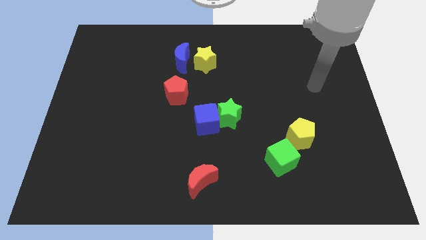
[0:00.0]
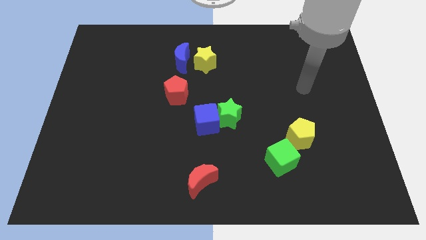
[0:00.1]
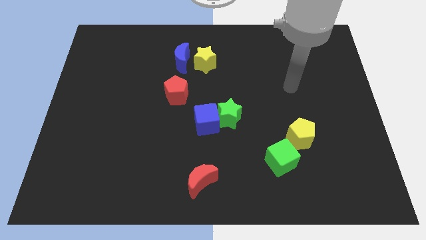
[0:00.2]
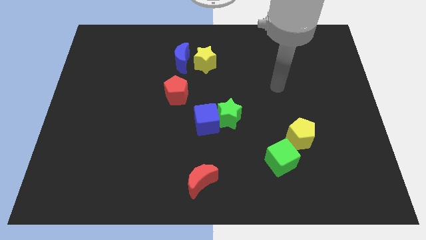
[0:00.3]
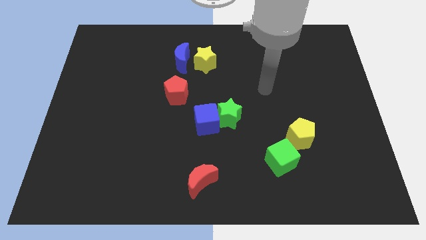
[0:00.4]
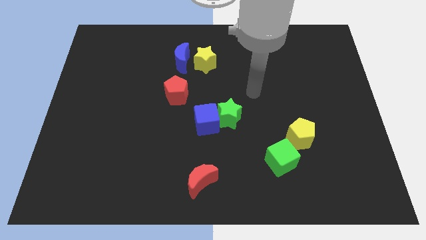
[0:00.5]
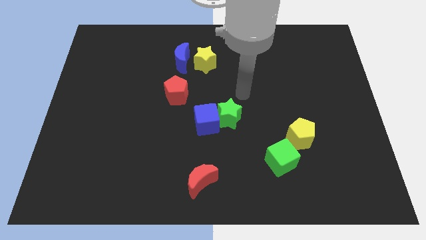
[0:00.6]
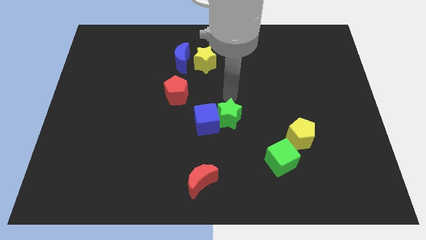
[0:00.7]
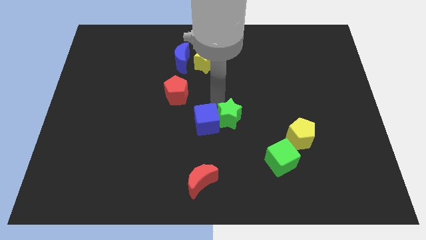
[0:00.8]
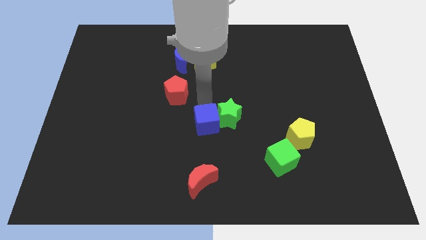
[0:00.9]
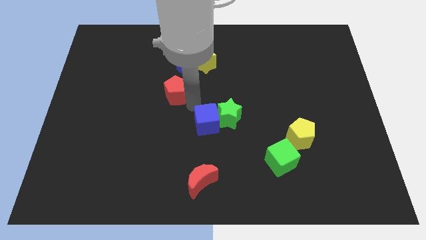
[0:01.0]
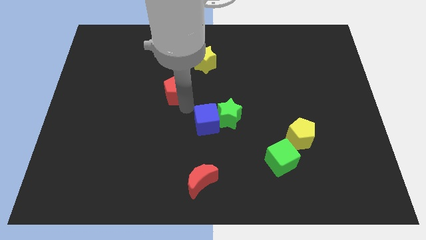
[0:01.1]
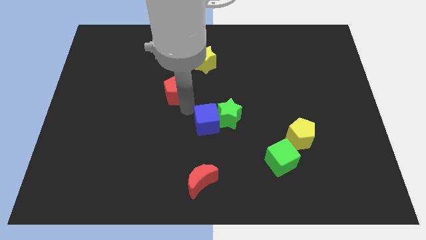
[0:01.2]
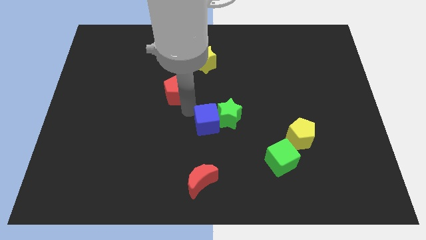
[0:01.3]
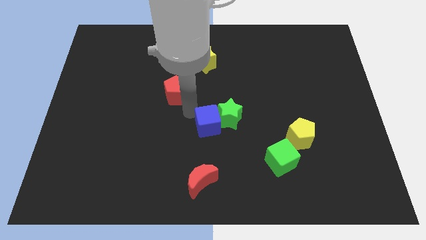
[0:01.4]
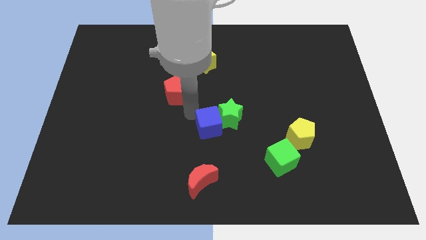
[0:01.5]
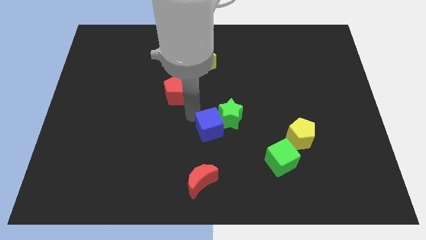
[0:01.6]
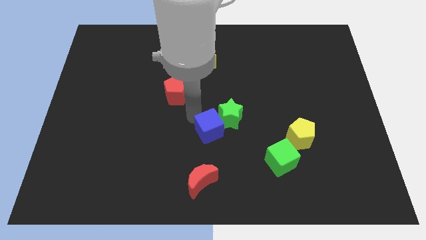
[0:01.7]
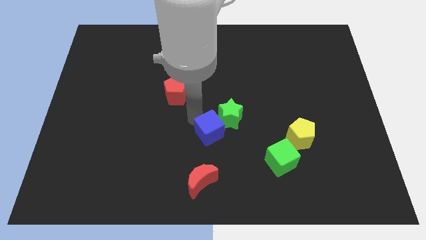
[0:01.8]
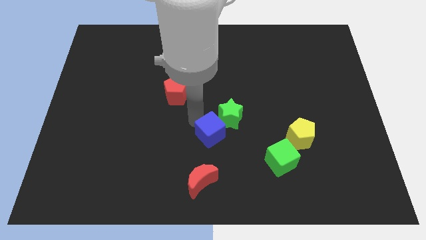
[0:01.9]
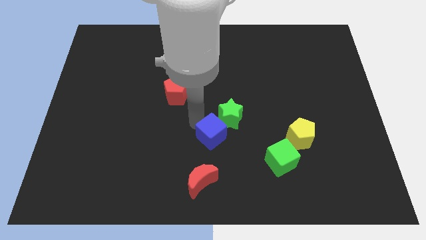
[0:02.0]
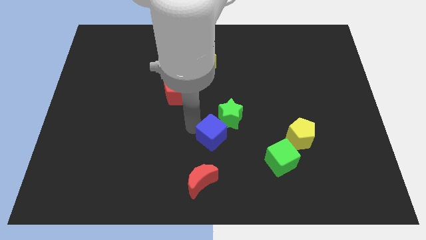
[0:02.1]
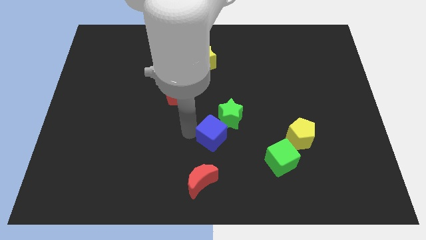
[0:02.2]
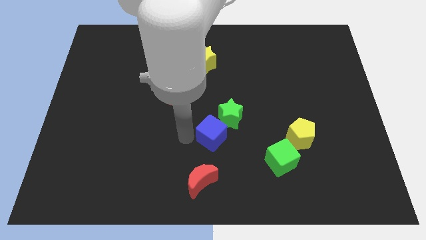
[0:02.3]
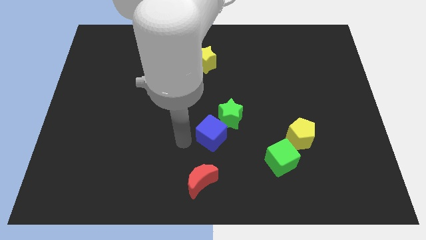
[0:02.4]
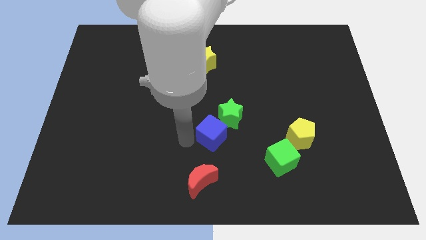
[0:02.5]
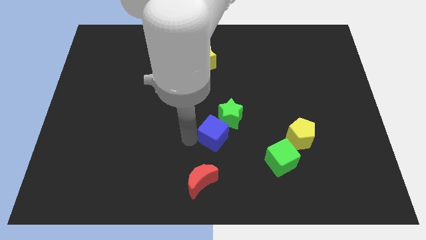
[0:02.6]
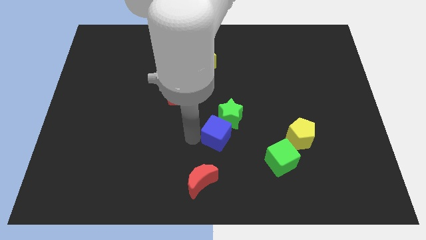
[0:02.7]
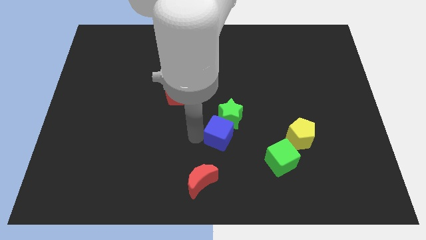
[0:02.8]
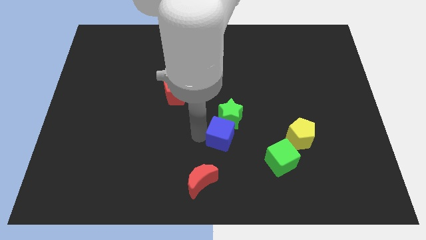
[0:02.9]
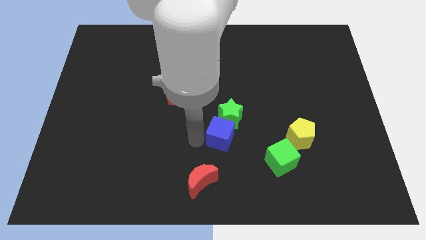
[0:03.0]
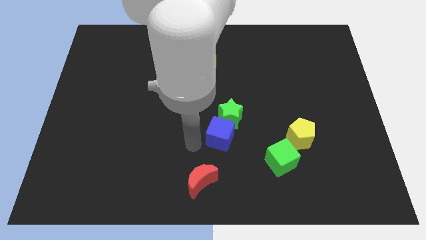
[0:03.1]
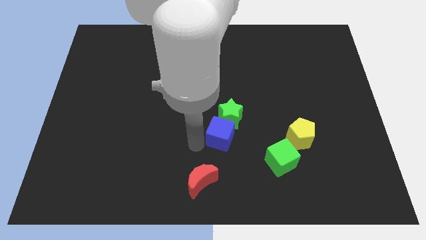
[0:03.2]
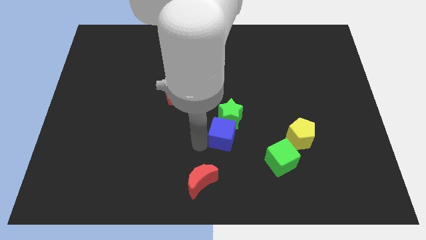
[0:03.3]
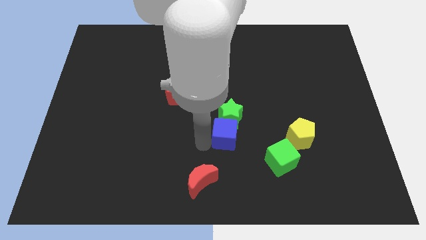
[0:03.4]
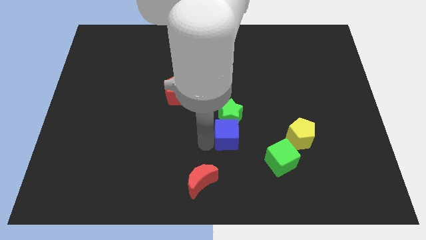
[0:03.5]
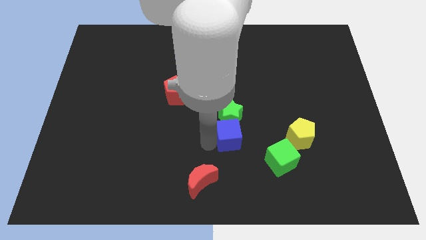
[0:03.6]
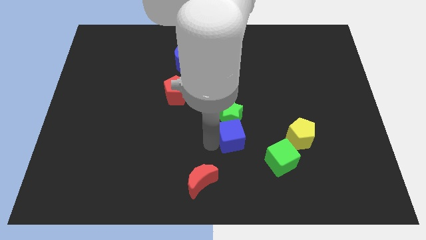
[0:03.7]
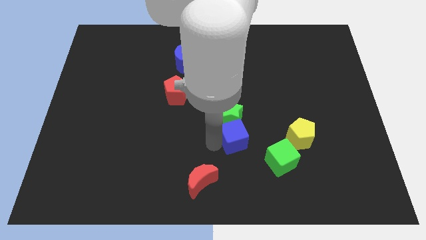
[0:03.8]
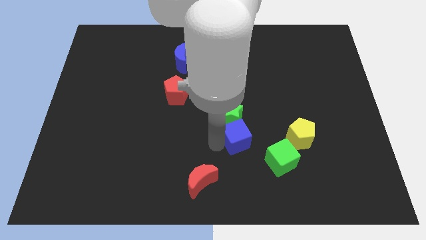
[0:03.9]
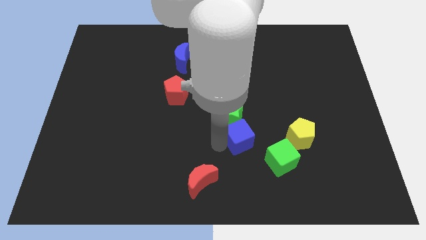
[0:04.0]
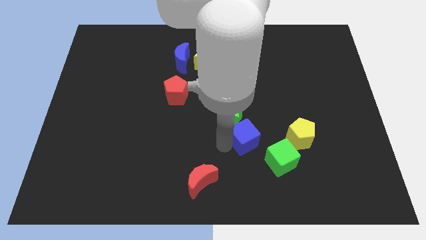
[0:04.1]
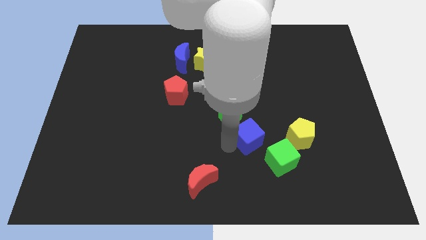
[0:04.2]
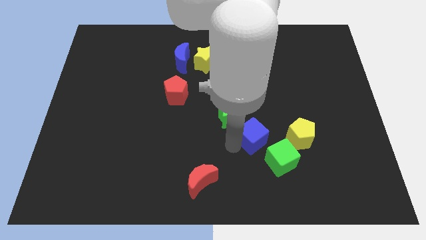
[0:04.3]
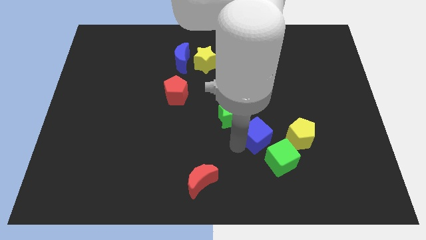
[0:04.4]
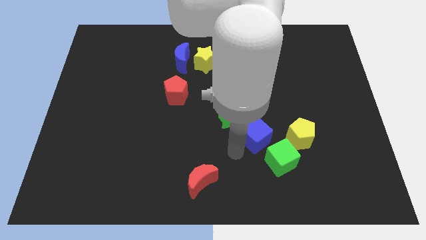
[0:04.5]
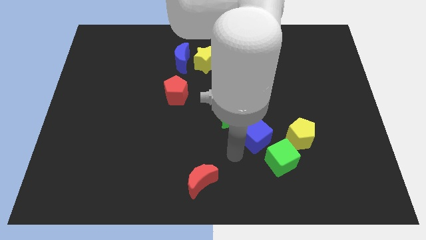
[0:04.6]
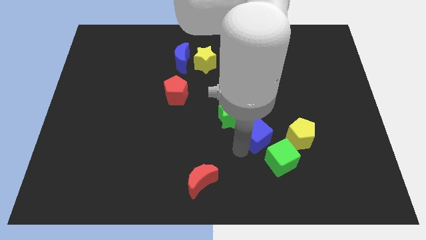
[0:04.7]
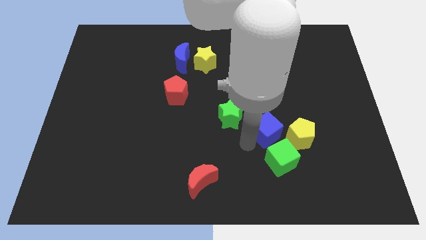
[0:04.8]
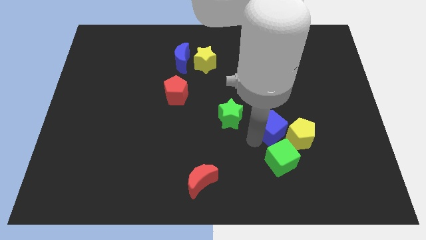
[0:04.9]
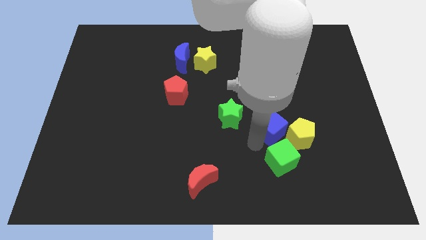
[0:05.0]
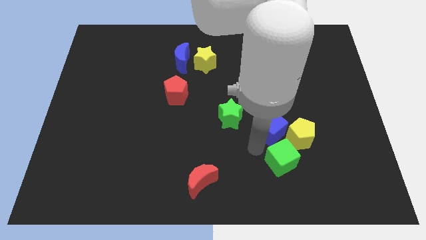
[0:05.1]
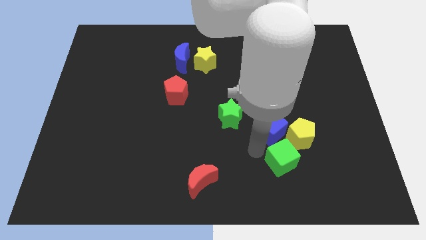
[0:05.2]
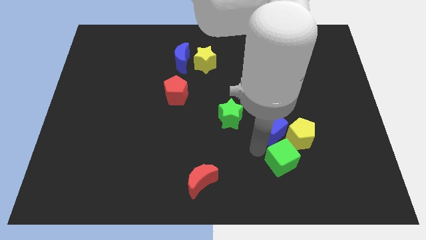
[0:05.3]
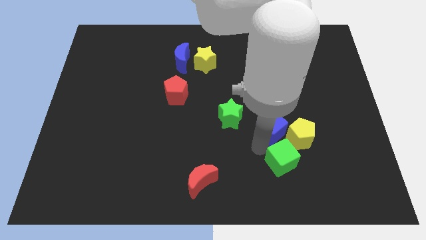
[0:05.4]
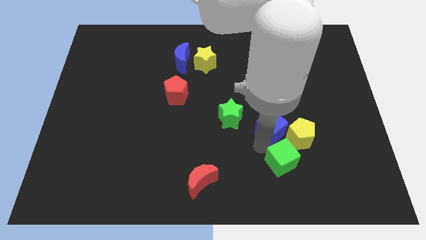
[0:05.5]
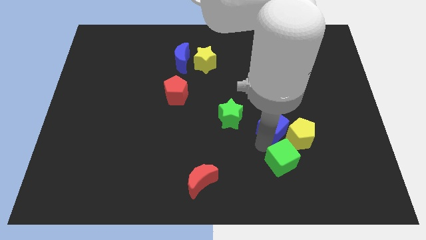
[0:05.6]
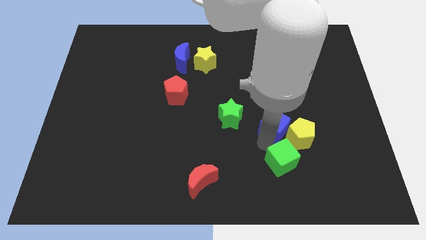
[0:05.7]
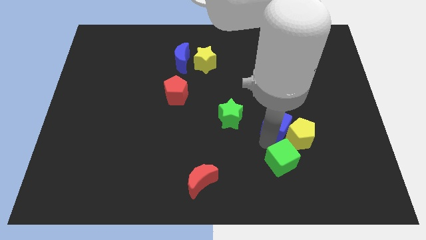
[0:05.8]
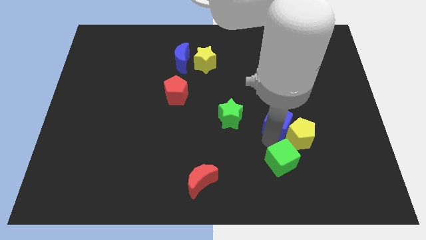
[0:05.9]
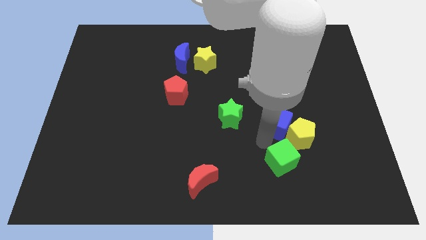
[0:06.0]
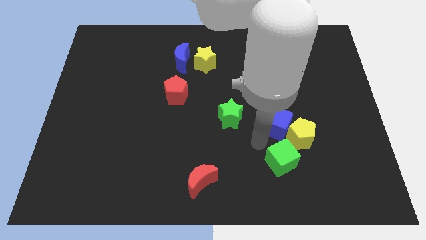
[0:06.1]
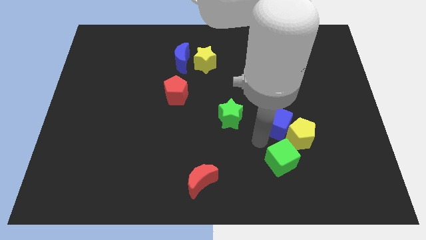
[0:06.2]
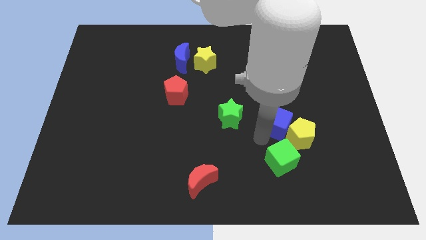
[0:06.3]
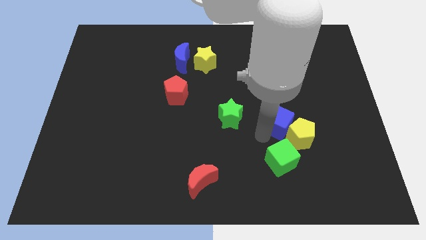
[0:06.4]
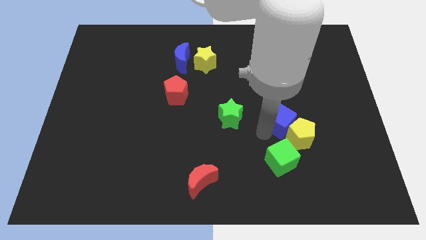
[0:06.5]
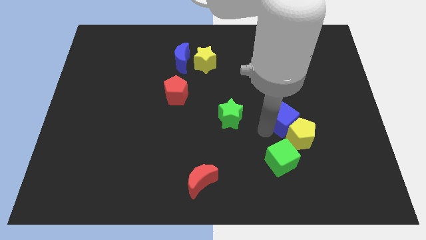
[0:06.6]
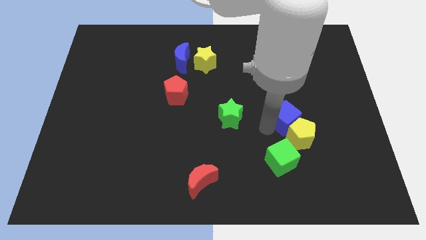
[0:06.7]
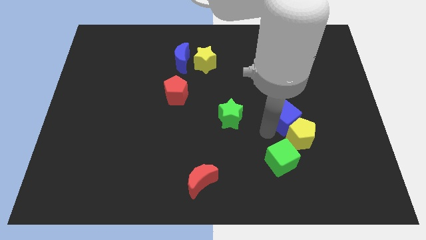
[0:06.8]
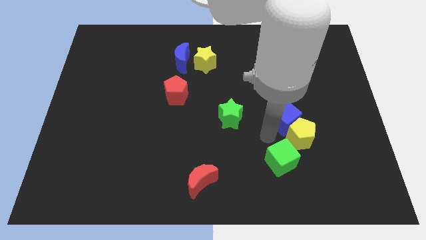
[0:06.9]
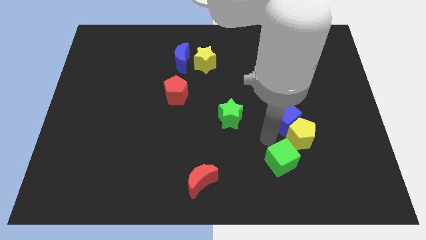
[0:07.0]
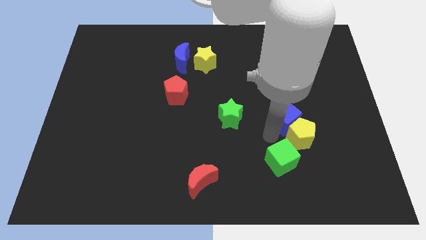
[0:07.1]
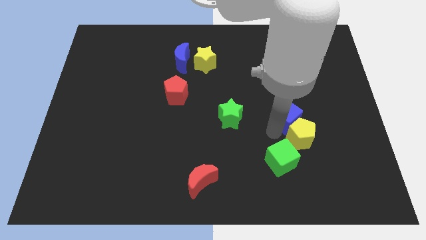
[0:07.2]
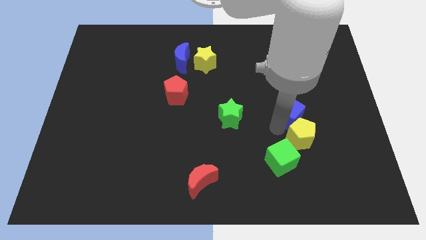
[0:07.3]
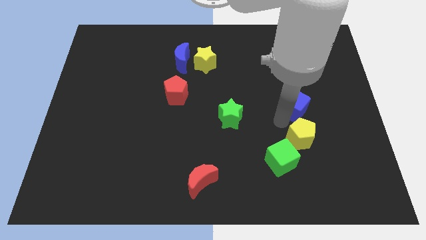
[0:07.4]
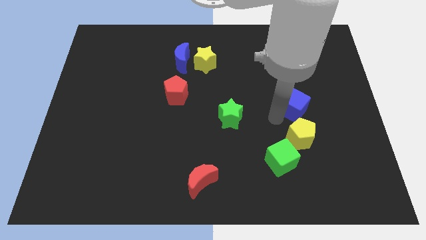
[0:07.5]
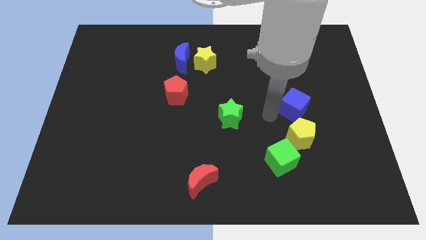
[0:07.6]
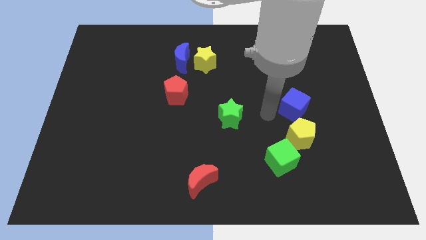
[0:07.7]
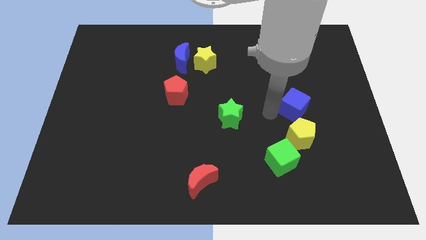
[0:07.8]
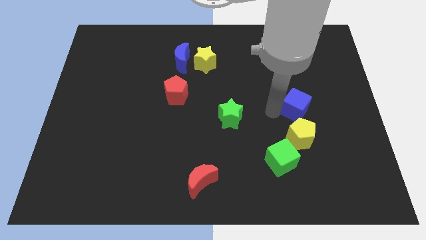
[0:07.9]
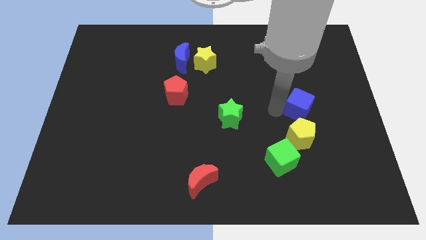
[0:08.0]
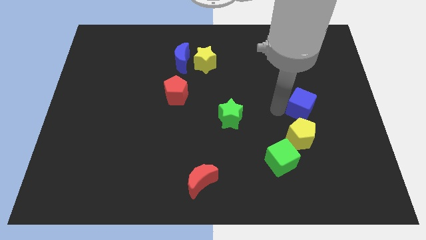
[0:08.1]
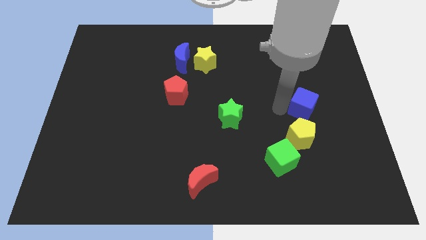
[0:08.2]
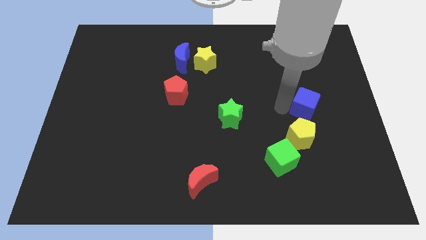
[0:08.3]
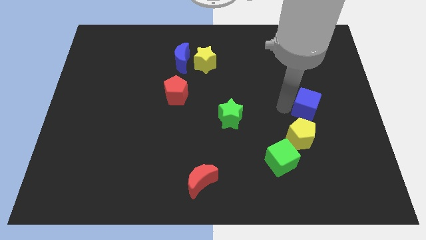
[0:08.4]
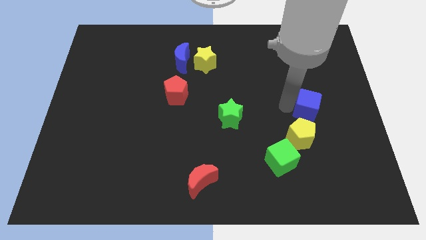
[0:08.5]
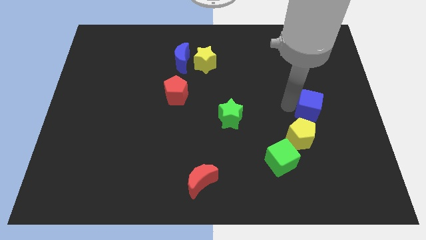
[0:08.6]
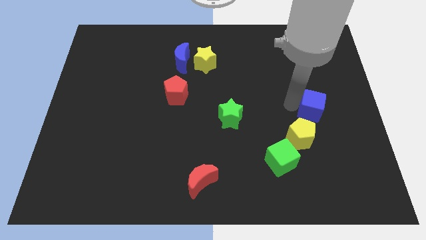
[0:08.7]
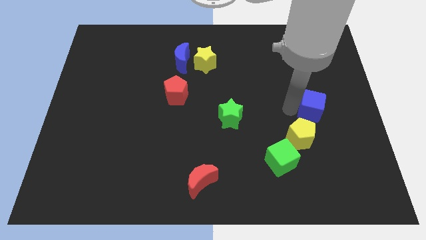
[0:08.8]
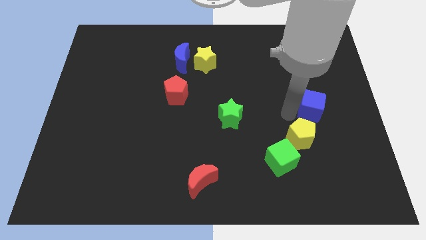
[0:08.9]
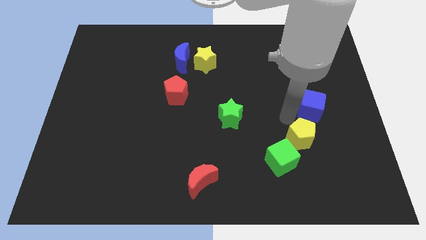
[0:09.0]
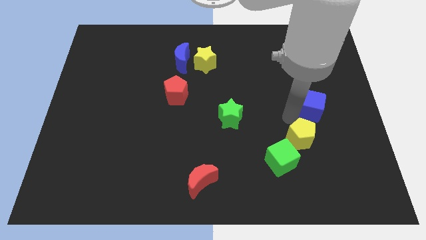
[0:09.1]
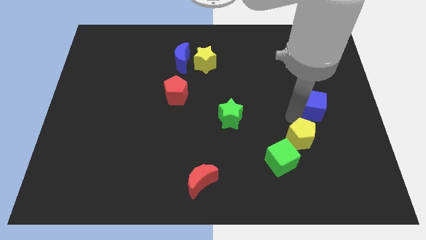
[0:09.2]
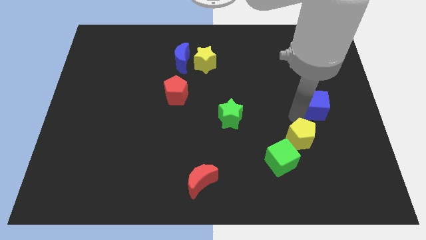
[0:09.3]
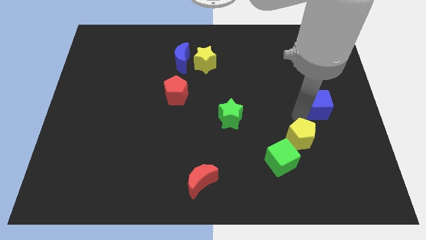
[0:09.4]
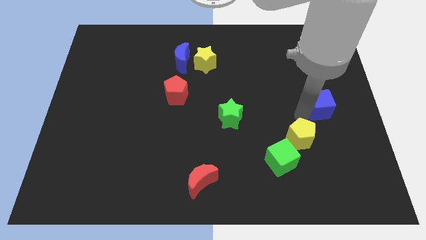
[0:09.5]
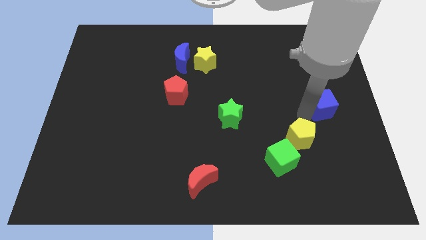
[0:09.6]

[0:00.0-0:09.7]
push the blue cube to the center right
